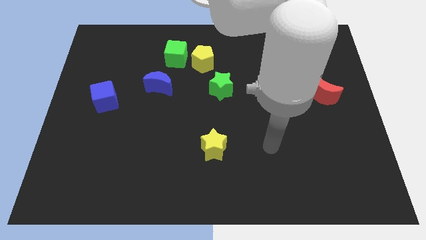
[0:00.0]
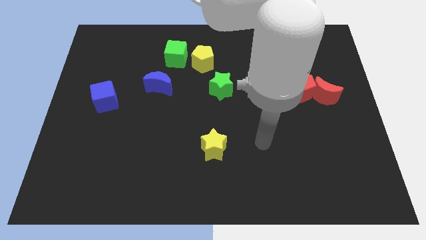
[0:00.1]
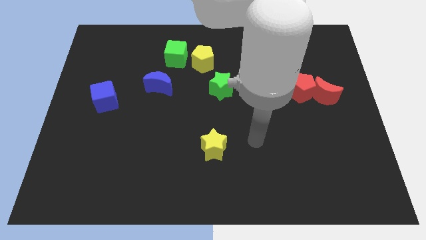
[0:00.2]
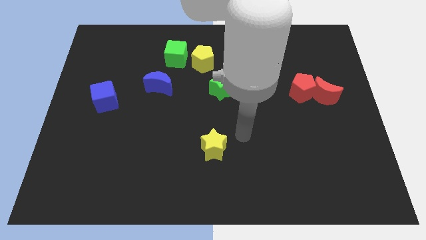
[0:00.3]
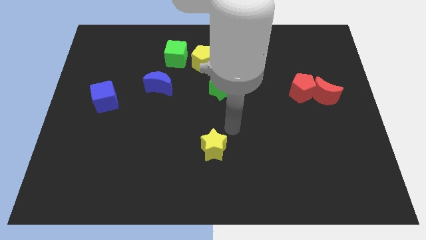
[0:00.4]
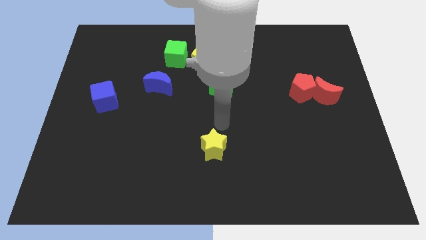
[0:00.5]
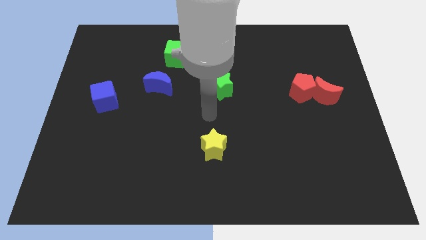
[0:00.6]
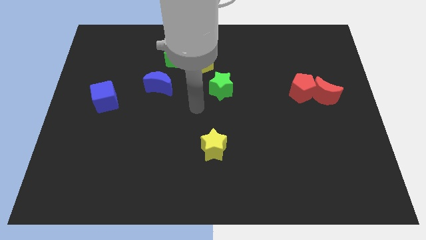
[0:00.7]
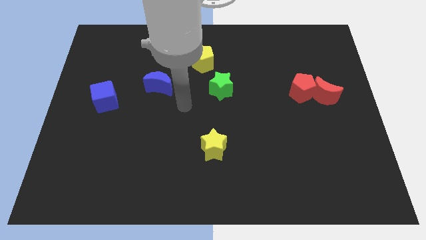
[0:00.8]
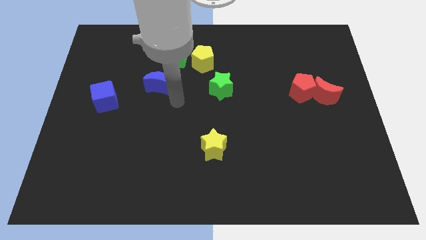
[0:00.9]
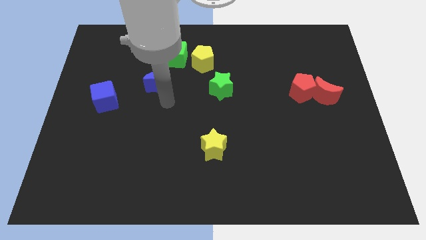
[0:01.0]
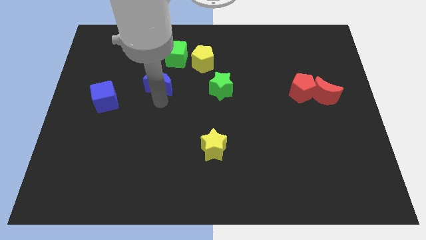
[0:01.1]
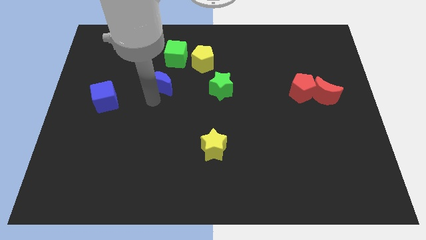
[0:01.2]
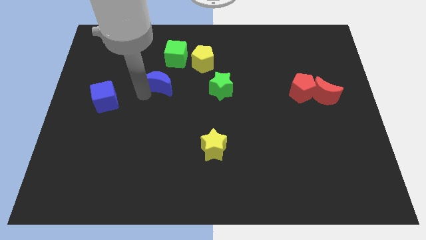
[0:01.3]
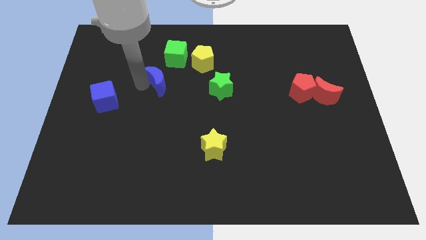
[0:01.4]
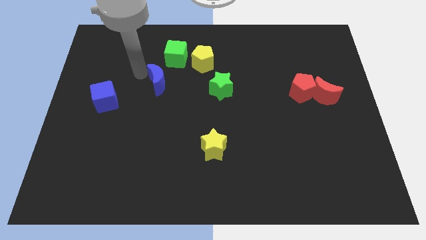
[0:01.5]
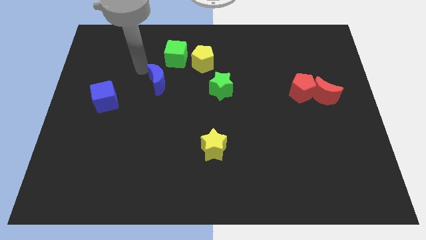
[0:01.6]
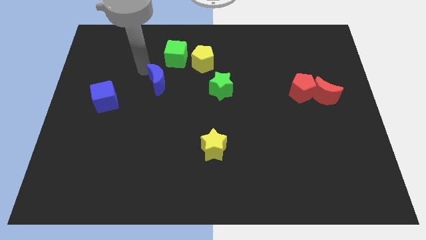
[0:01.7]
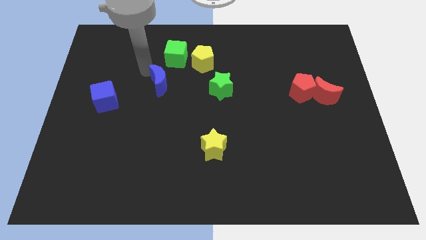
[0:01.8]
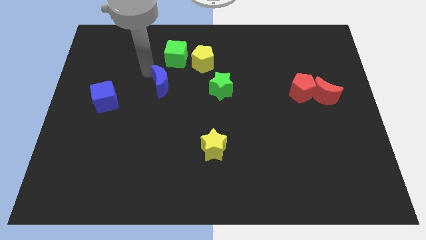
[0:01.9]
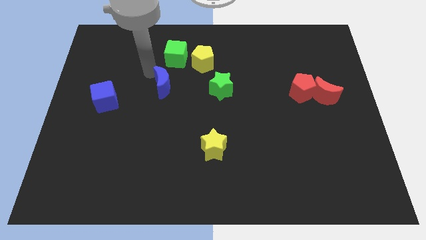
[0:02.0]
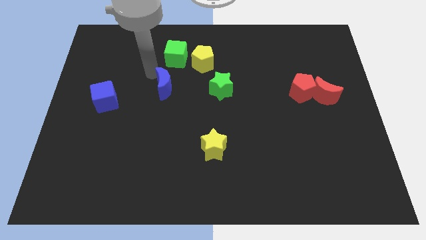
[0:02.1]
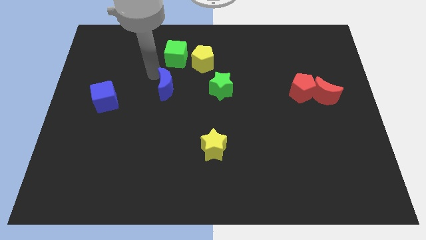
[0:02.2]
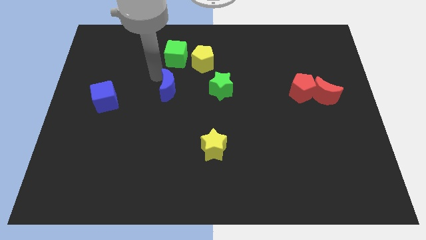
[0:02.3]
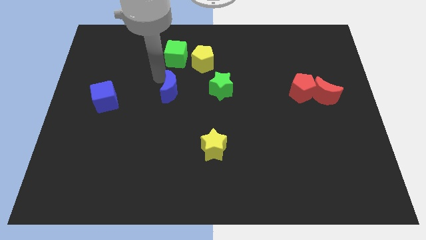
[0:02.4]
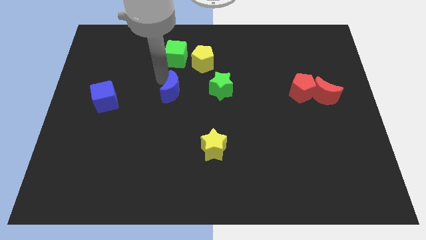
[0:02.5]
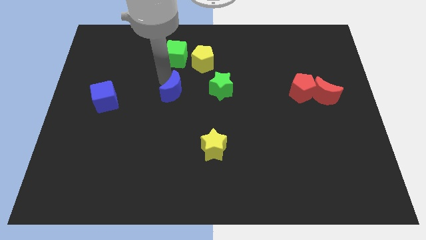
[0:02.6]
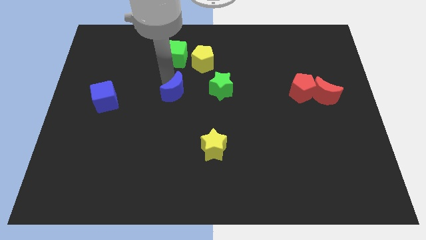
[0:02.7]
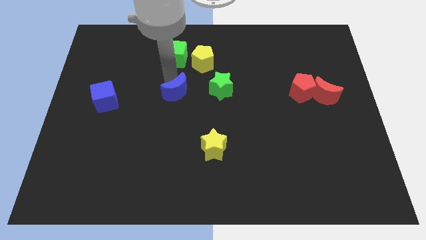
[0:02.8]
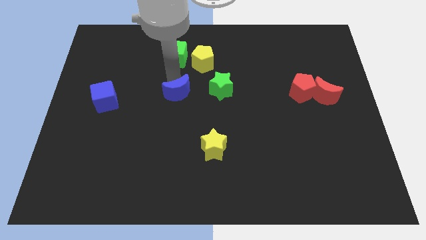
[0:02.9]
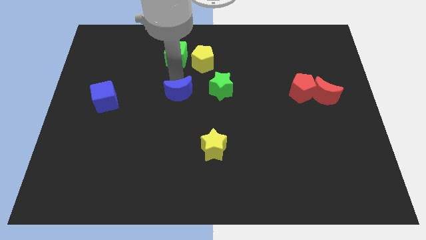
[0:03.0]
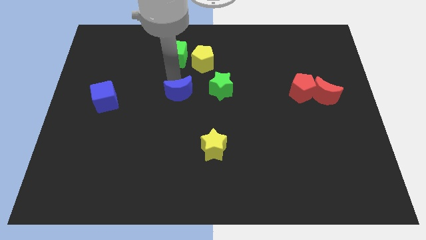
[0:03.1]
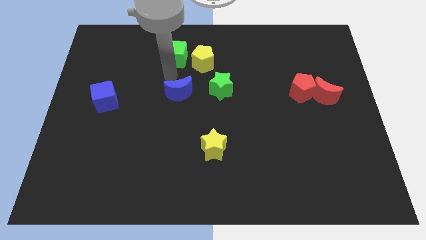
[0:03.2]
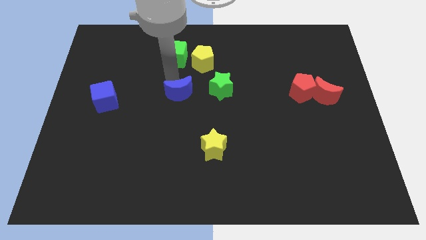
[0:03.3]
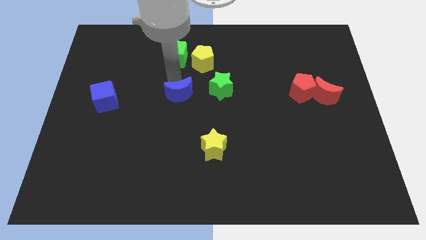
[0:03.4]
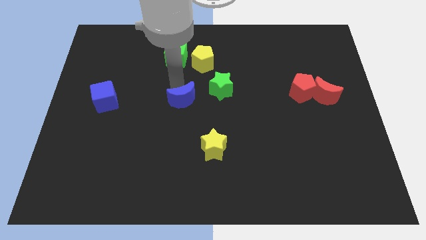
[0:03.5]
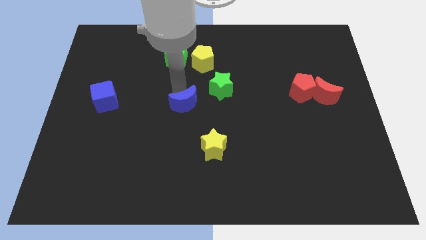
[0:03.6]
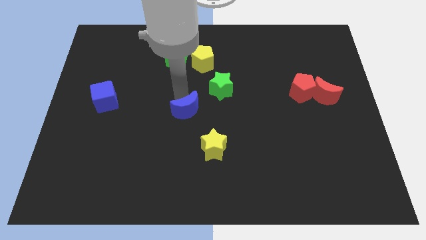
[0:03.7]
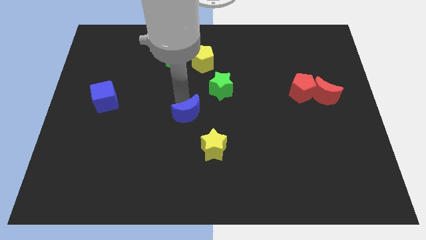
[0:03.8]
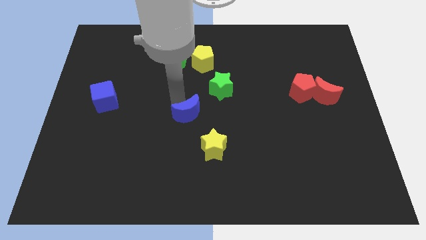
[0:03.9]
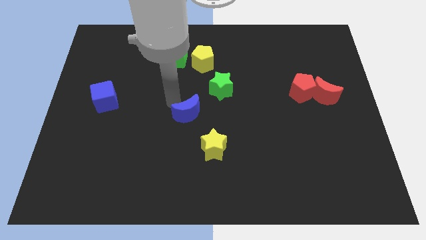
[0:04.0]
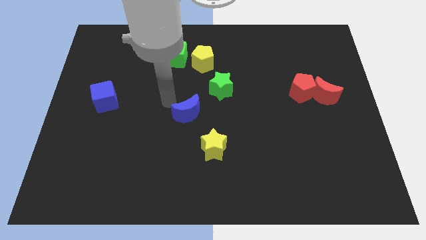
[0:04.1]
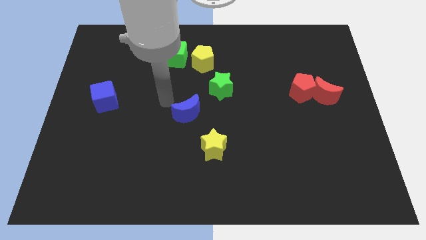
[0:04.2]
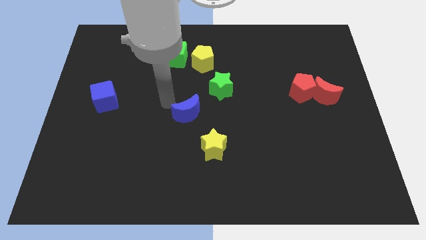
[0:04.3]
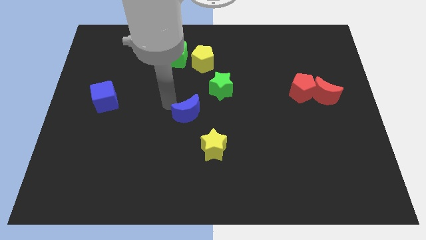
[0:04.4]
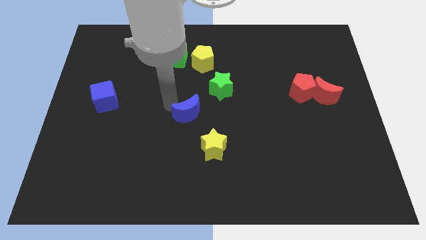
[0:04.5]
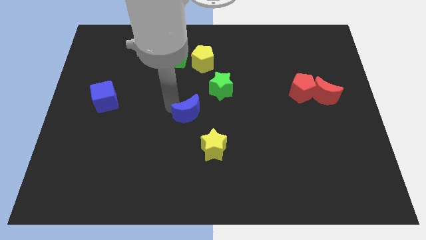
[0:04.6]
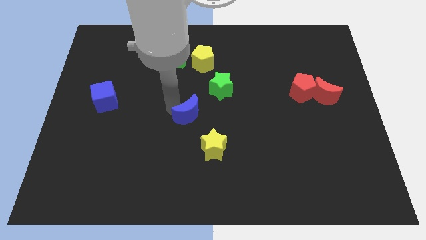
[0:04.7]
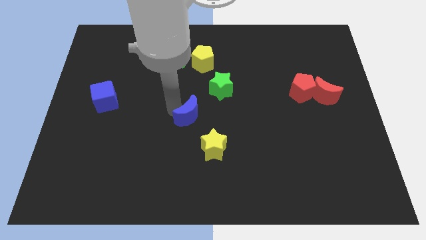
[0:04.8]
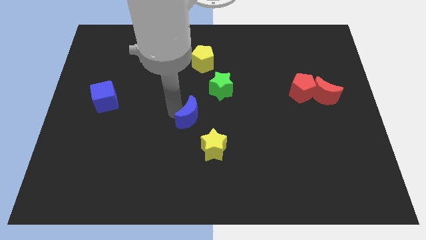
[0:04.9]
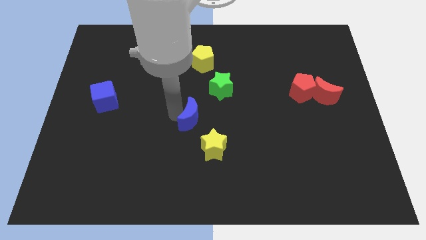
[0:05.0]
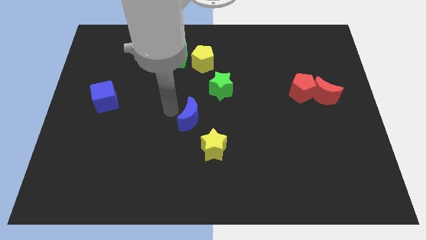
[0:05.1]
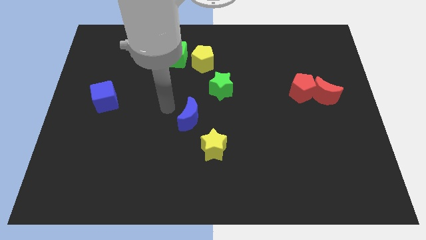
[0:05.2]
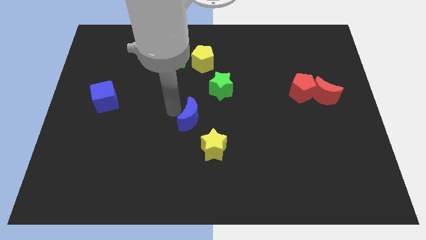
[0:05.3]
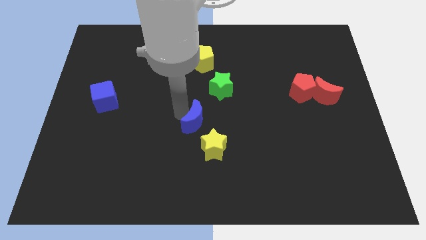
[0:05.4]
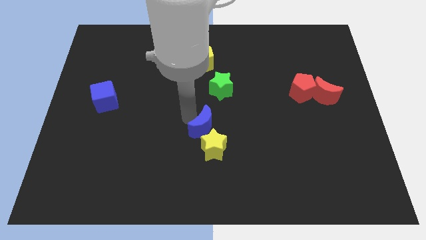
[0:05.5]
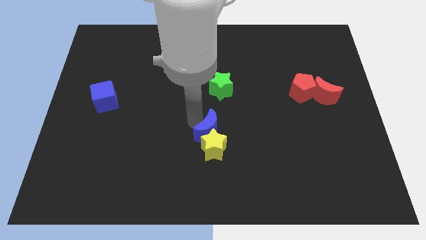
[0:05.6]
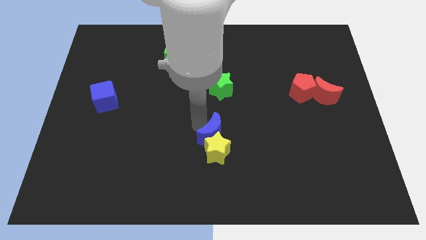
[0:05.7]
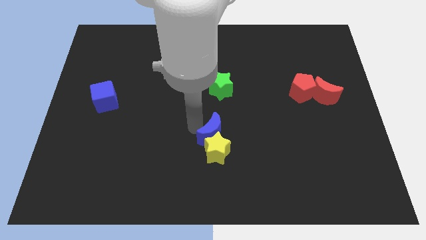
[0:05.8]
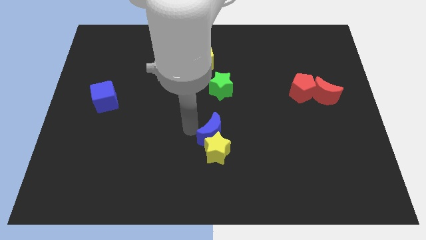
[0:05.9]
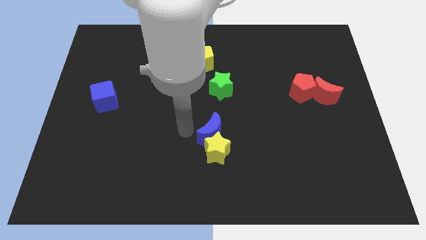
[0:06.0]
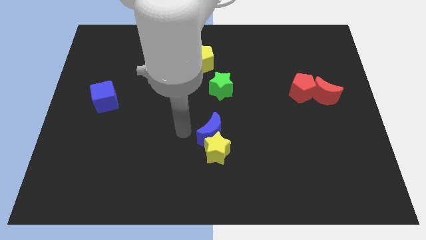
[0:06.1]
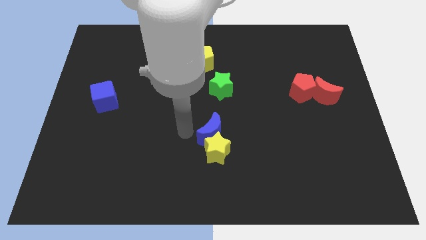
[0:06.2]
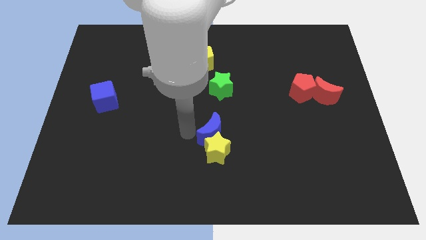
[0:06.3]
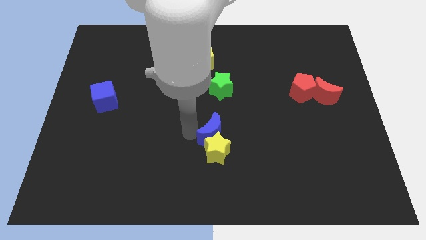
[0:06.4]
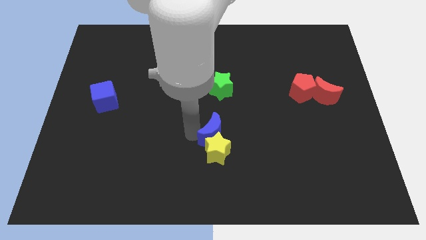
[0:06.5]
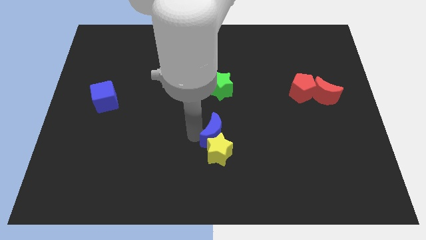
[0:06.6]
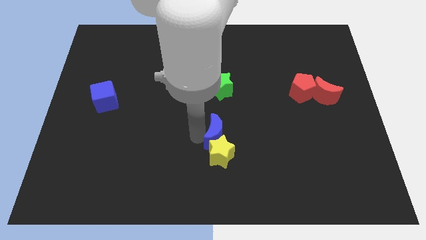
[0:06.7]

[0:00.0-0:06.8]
move the blue moon downwards and then right

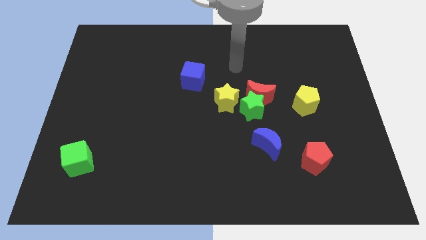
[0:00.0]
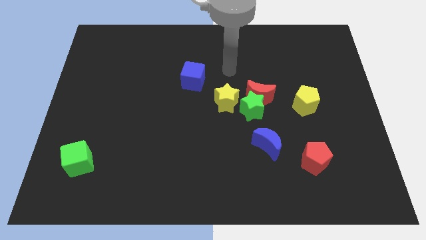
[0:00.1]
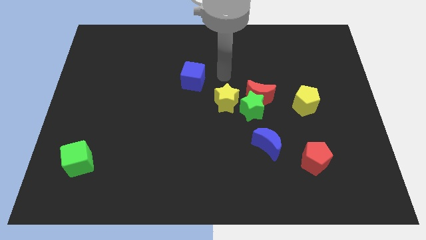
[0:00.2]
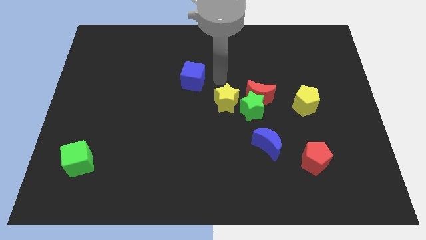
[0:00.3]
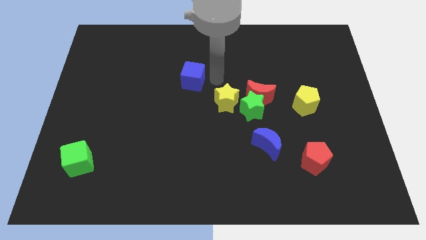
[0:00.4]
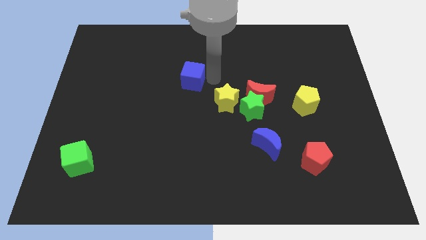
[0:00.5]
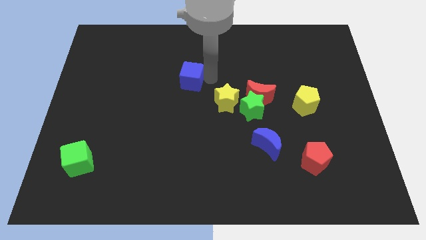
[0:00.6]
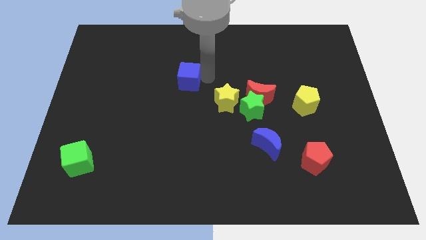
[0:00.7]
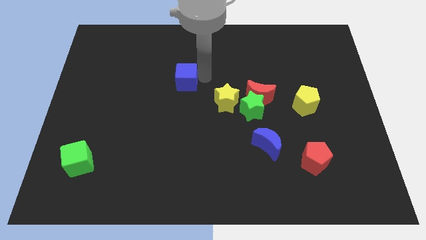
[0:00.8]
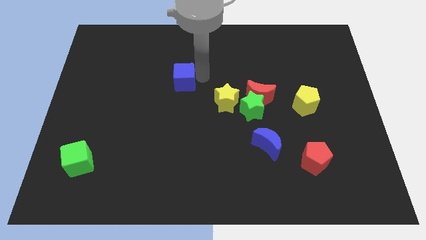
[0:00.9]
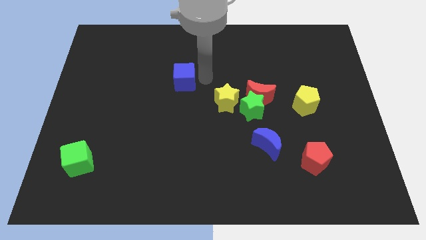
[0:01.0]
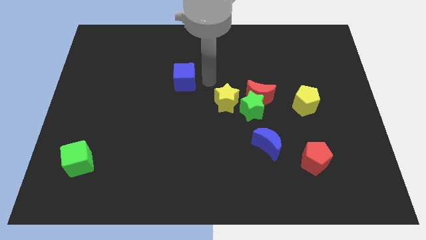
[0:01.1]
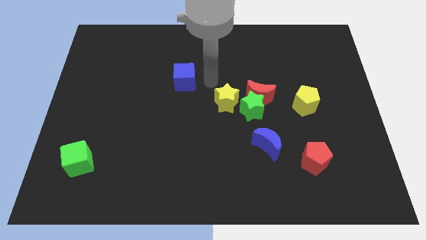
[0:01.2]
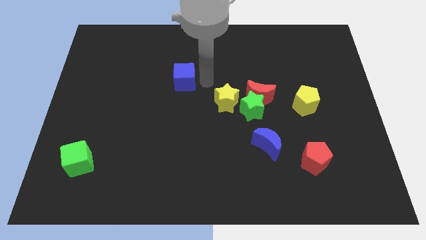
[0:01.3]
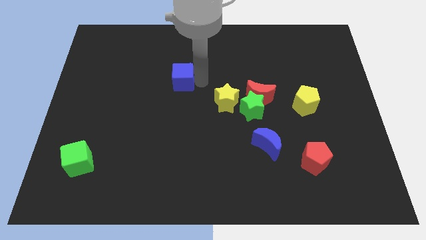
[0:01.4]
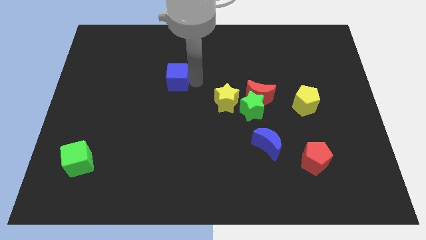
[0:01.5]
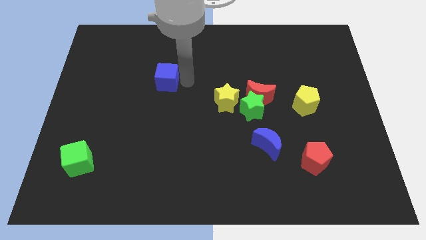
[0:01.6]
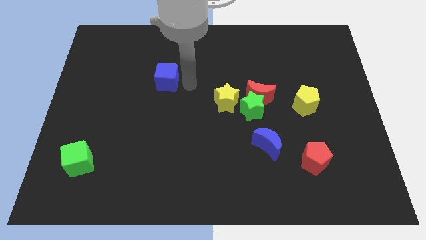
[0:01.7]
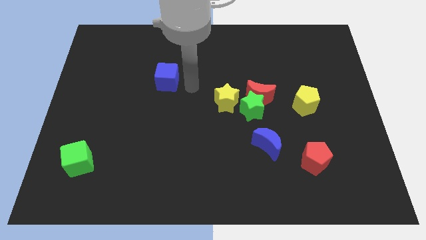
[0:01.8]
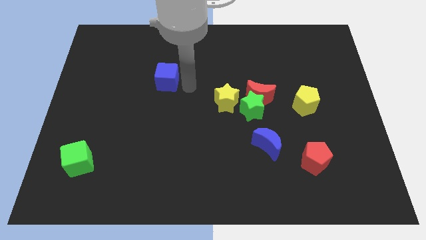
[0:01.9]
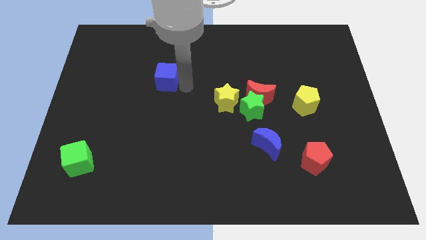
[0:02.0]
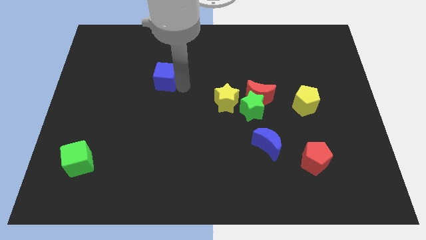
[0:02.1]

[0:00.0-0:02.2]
move the blue cube slightly left
